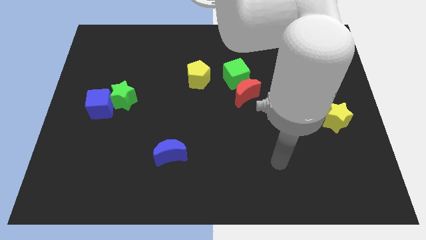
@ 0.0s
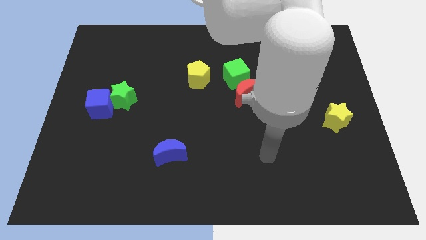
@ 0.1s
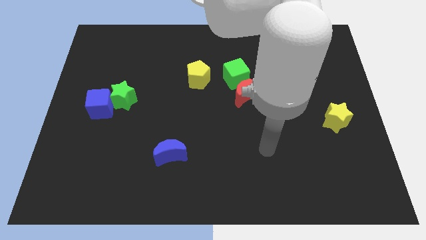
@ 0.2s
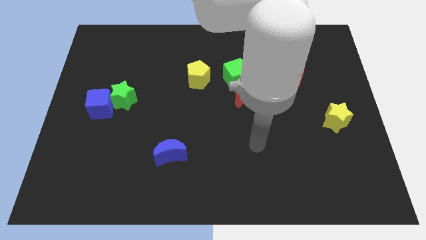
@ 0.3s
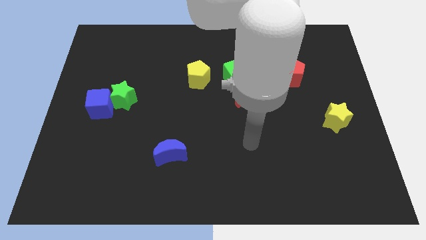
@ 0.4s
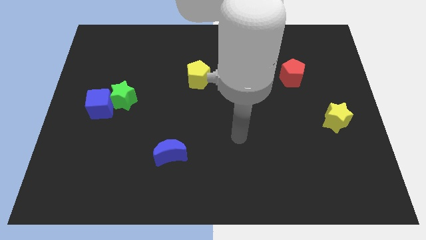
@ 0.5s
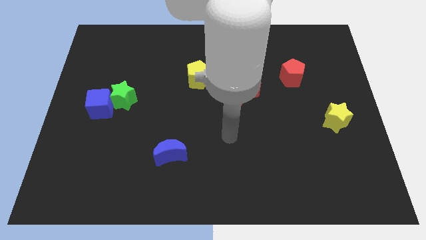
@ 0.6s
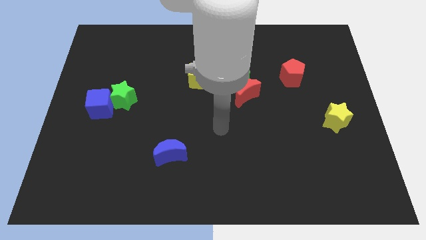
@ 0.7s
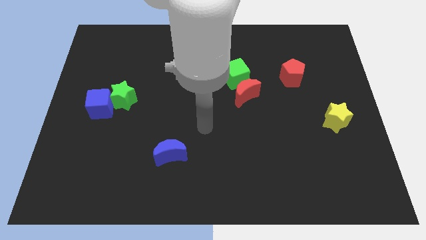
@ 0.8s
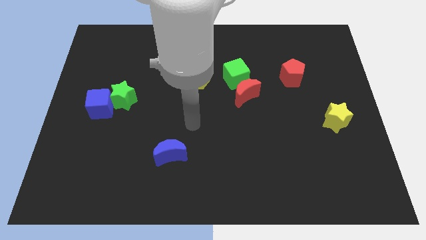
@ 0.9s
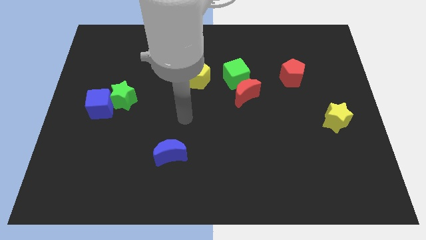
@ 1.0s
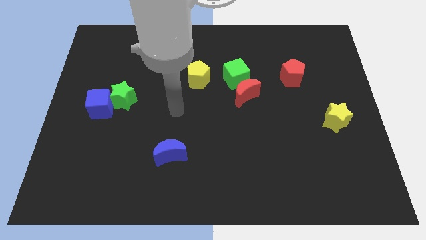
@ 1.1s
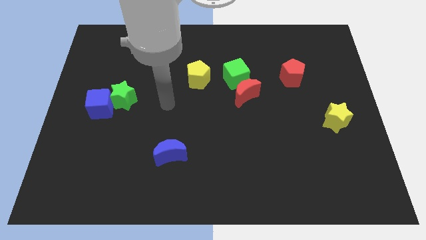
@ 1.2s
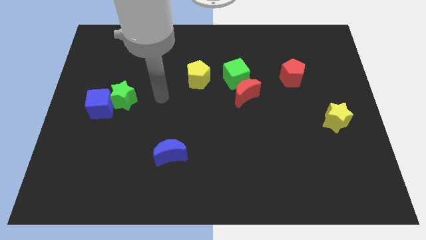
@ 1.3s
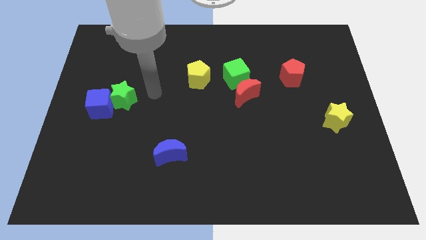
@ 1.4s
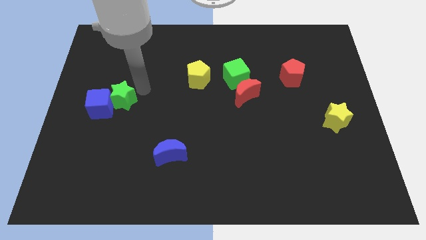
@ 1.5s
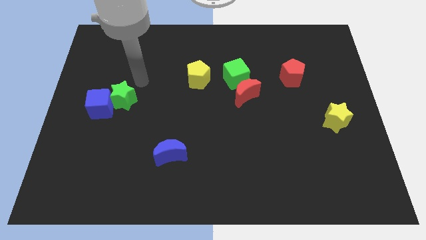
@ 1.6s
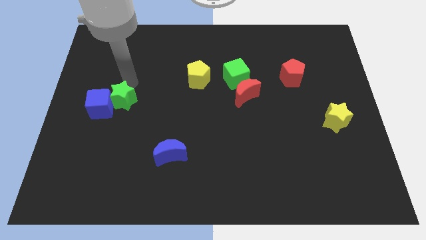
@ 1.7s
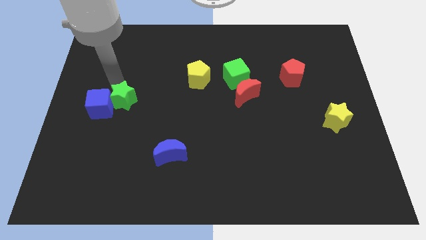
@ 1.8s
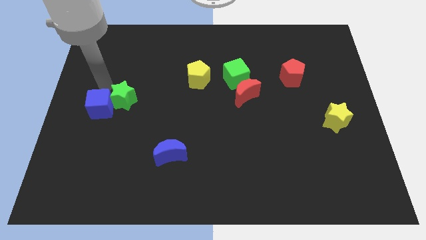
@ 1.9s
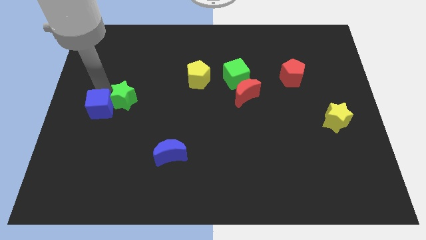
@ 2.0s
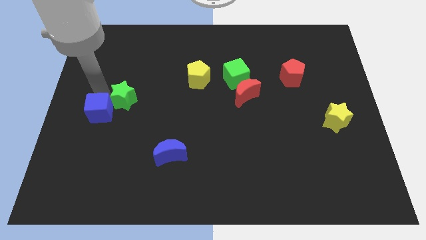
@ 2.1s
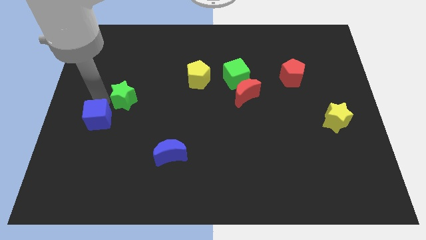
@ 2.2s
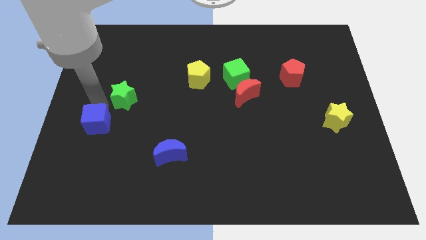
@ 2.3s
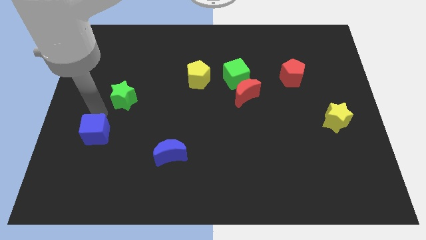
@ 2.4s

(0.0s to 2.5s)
move the blue cube downwards somewhat

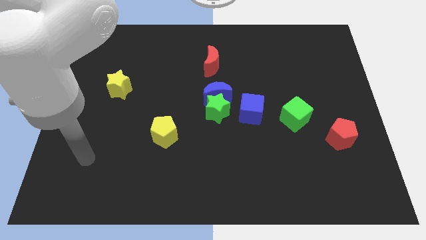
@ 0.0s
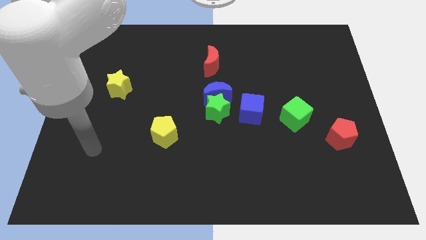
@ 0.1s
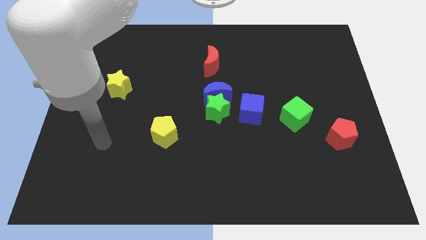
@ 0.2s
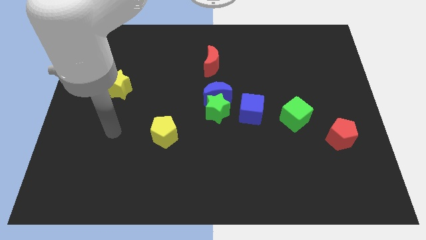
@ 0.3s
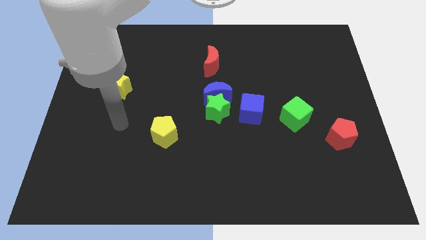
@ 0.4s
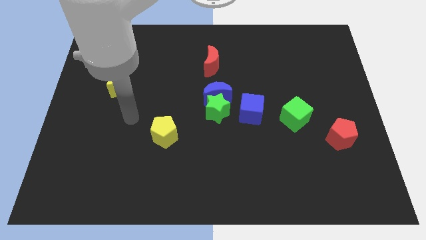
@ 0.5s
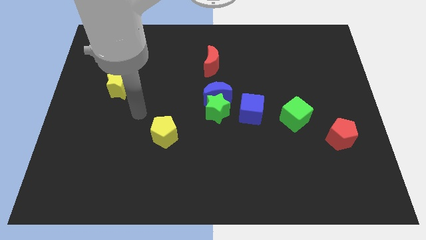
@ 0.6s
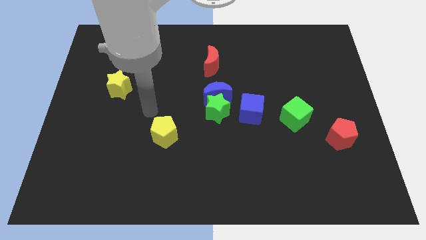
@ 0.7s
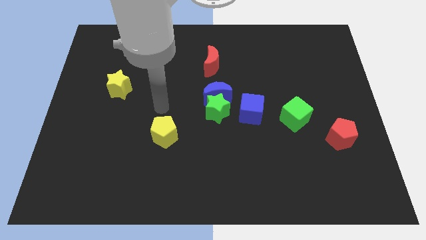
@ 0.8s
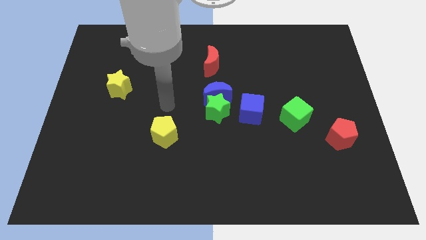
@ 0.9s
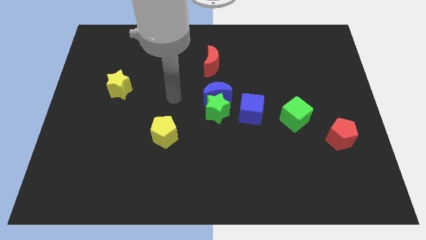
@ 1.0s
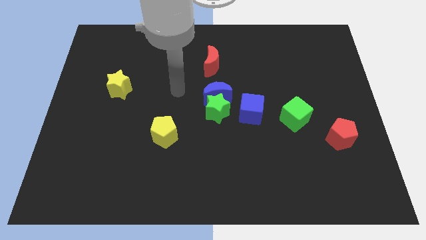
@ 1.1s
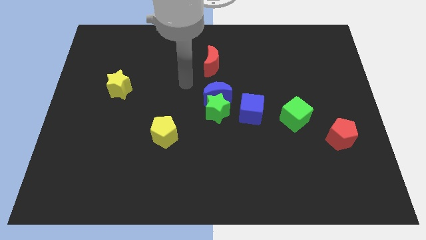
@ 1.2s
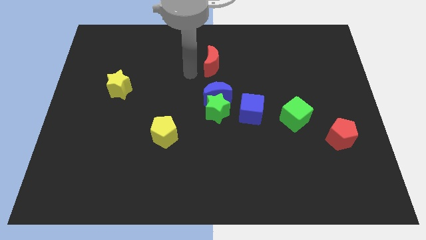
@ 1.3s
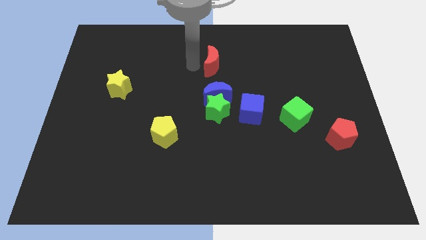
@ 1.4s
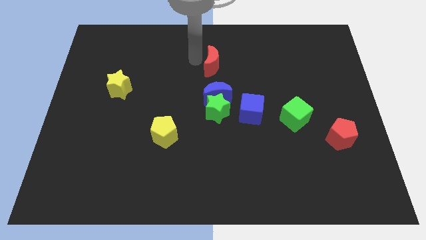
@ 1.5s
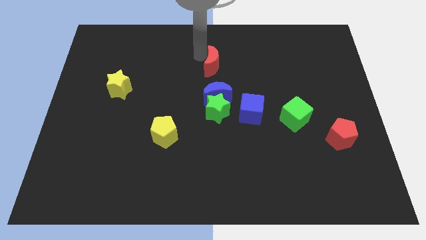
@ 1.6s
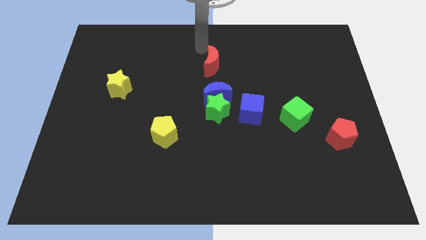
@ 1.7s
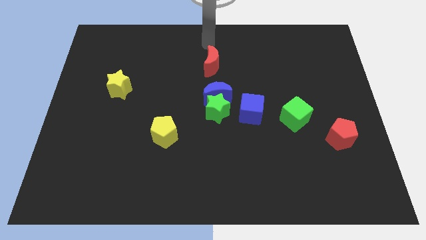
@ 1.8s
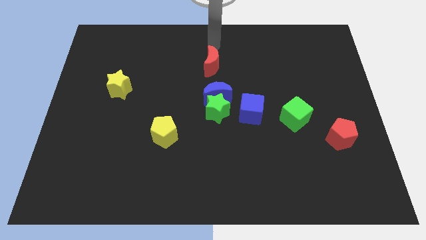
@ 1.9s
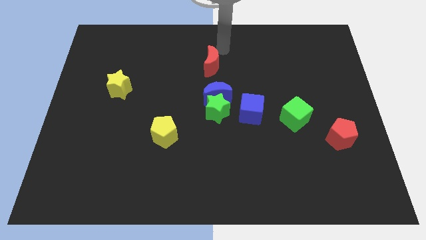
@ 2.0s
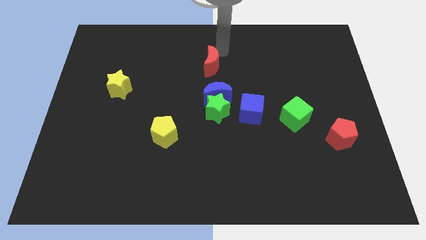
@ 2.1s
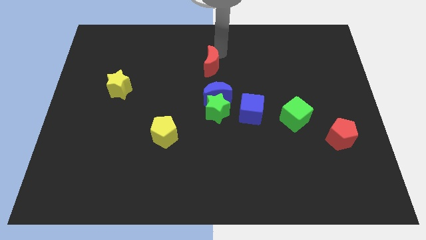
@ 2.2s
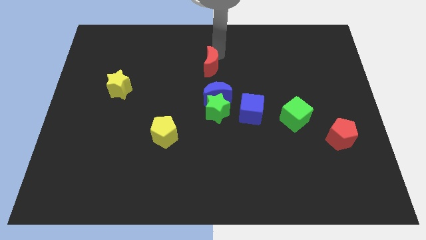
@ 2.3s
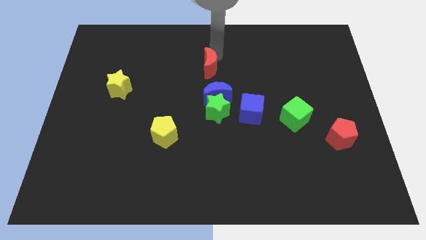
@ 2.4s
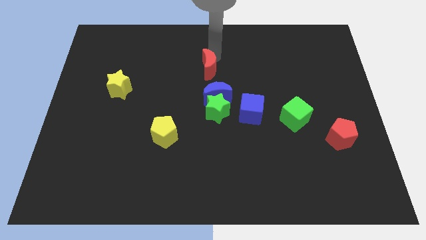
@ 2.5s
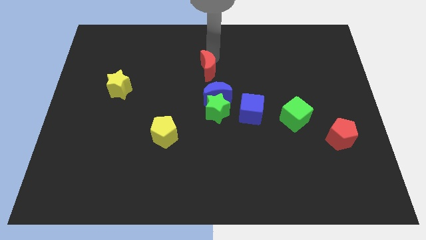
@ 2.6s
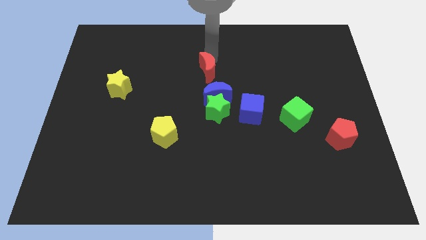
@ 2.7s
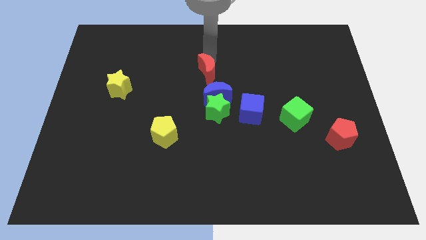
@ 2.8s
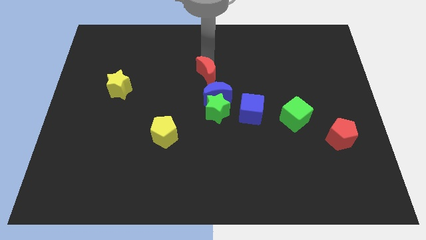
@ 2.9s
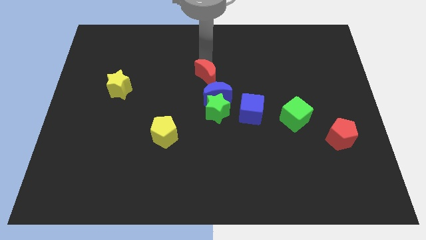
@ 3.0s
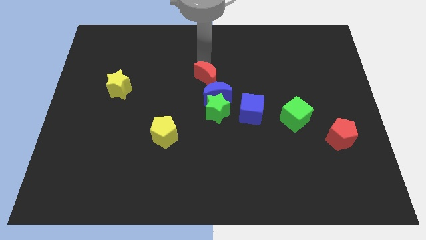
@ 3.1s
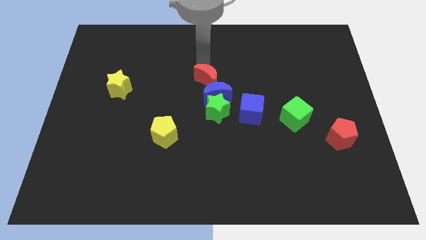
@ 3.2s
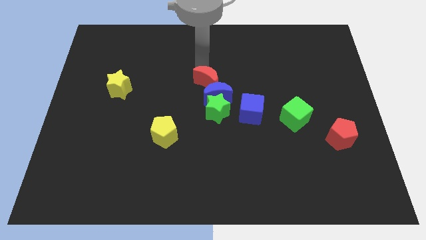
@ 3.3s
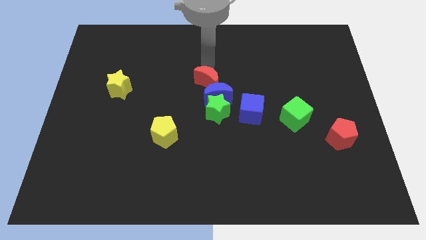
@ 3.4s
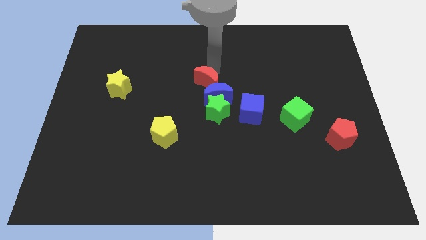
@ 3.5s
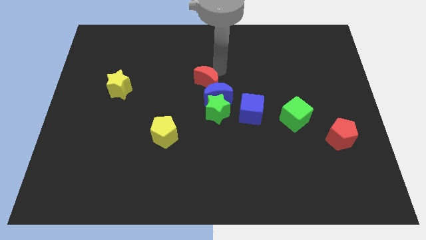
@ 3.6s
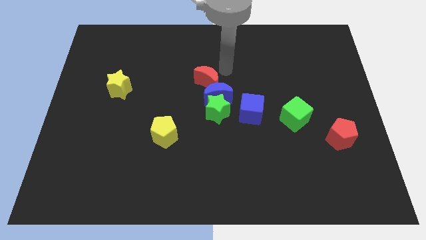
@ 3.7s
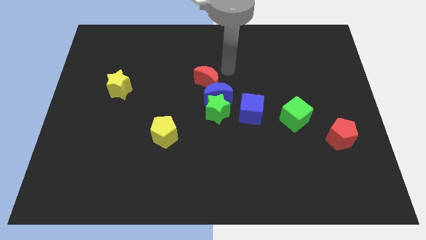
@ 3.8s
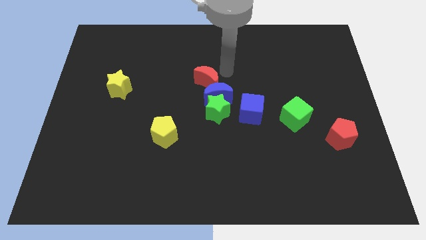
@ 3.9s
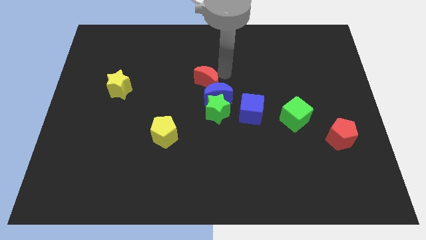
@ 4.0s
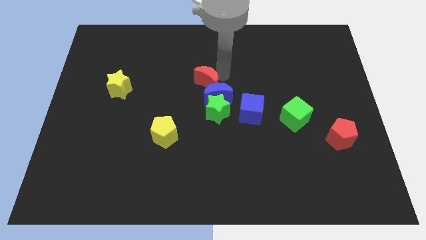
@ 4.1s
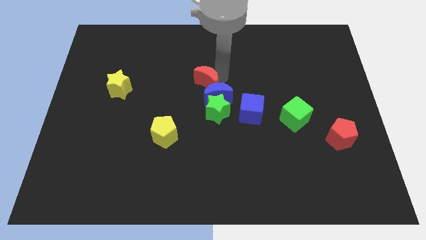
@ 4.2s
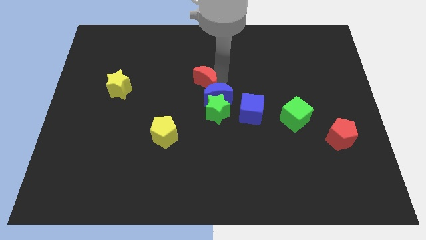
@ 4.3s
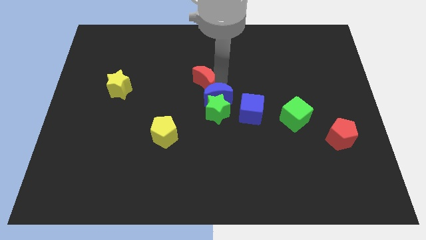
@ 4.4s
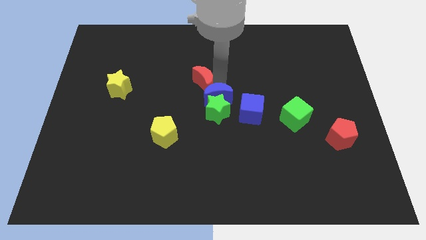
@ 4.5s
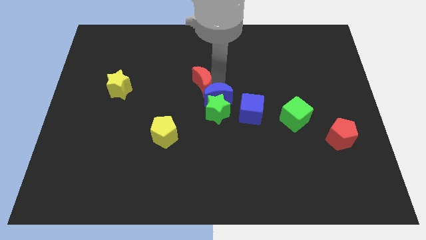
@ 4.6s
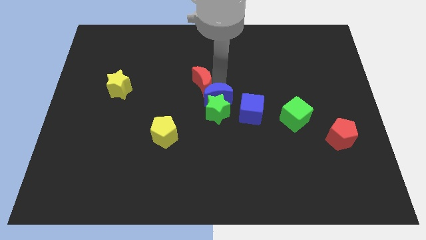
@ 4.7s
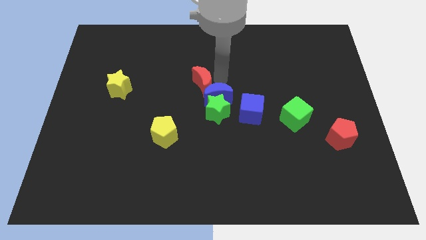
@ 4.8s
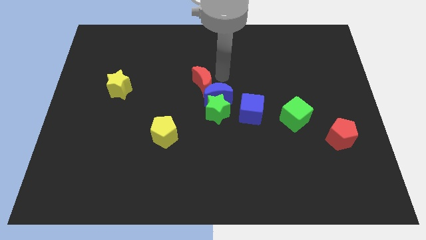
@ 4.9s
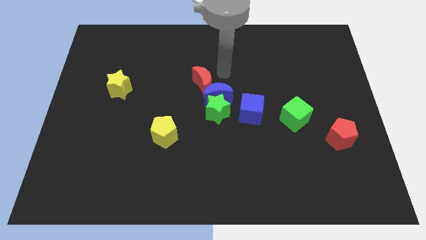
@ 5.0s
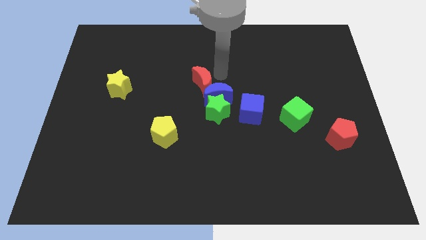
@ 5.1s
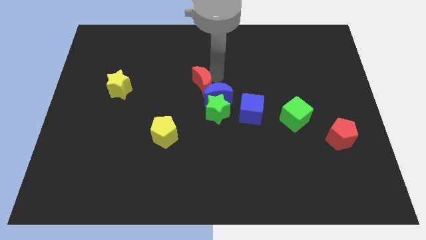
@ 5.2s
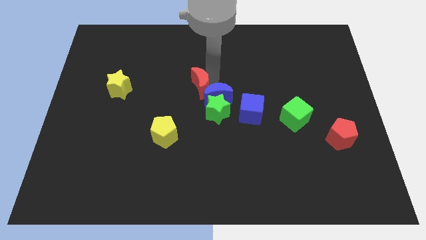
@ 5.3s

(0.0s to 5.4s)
slide the red moon downwards slightly
